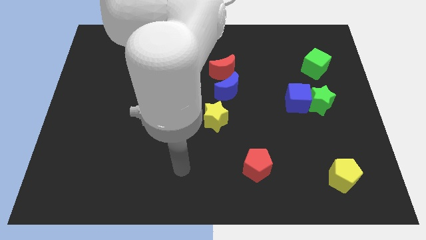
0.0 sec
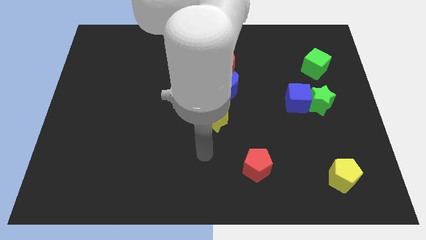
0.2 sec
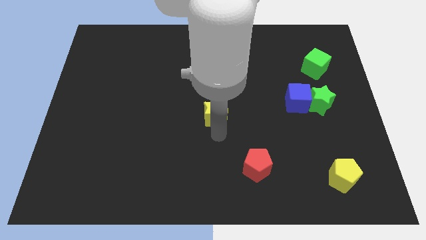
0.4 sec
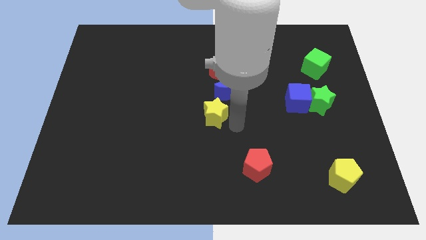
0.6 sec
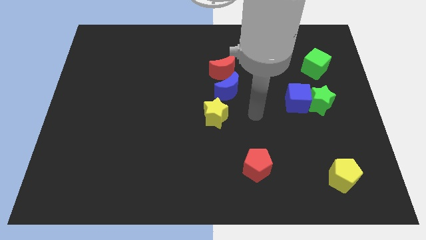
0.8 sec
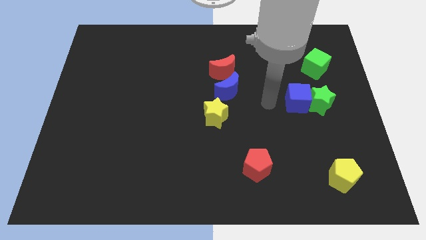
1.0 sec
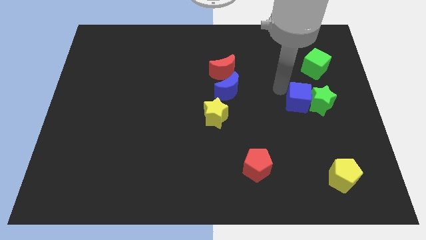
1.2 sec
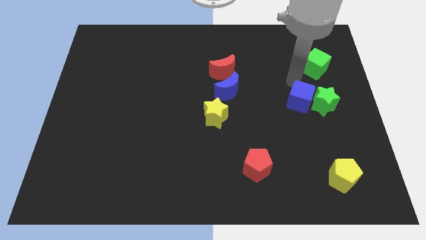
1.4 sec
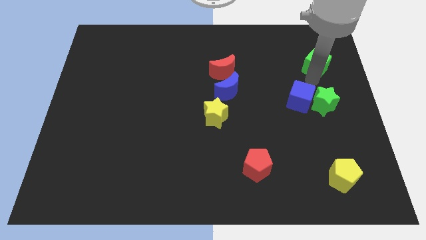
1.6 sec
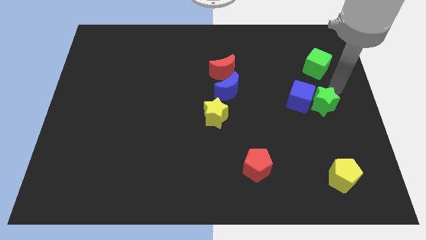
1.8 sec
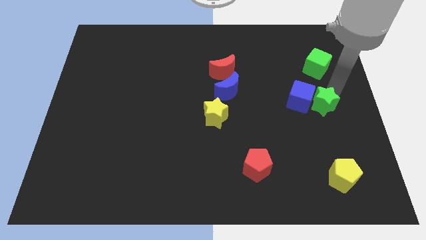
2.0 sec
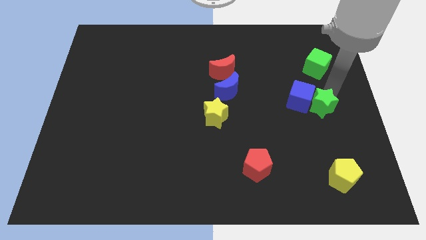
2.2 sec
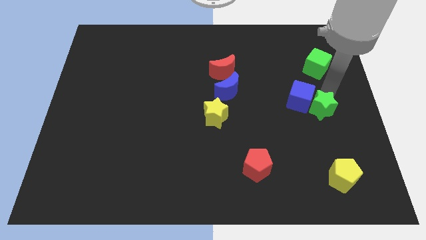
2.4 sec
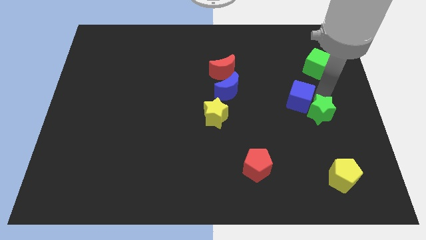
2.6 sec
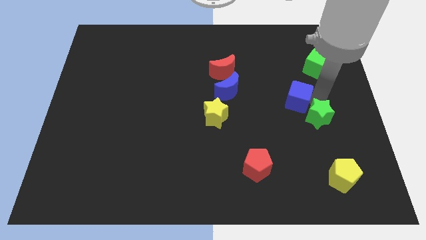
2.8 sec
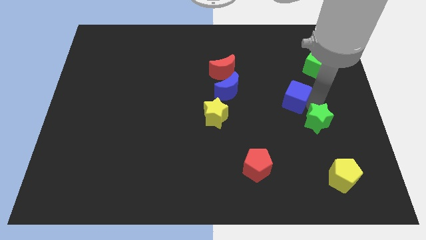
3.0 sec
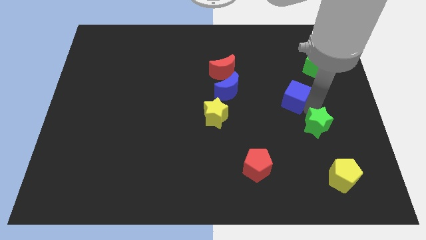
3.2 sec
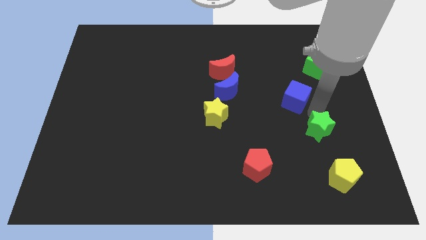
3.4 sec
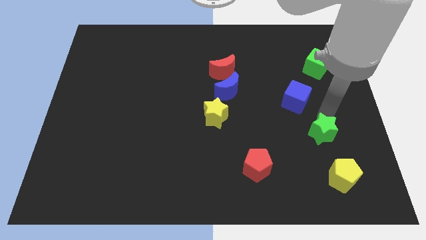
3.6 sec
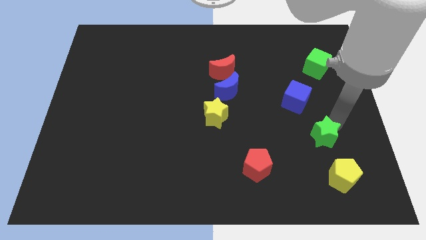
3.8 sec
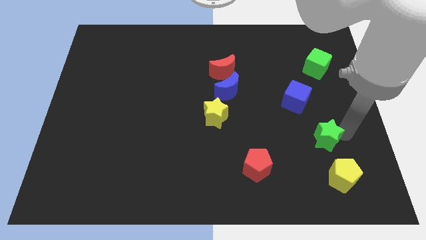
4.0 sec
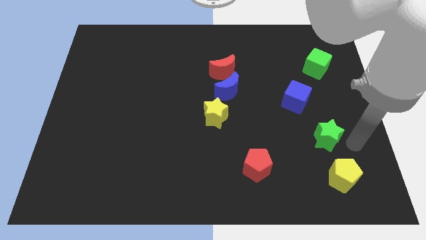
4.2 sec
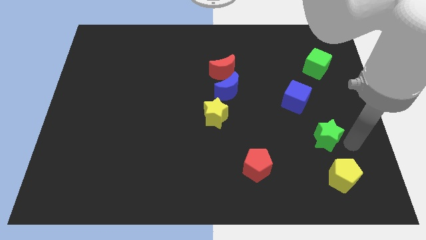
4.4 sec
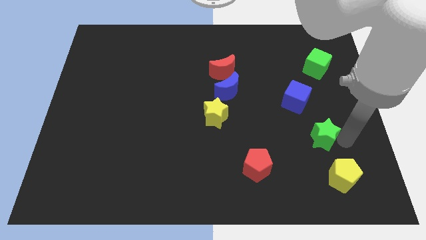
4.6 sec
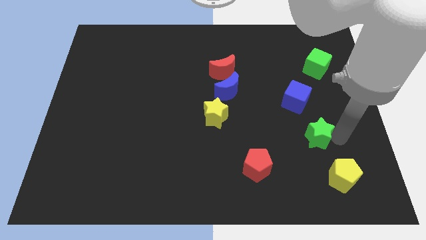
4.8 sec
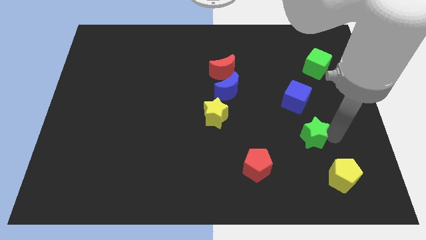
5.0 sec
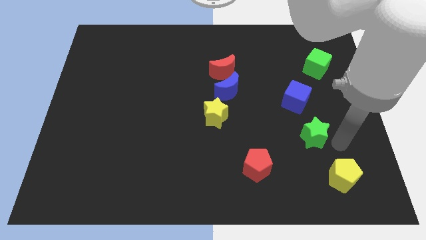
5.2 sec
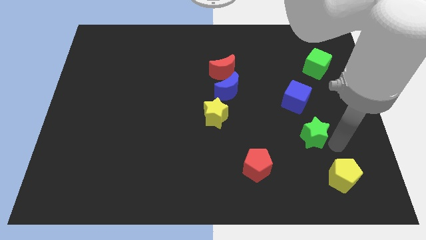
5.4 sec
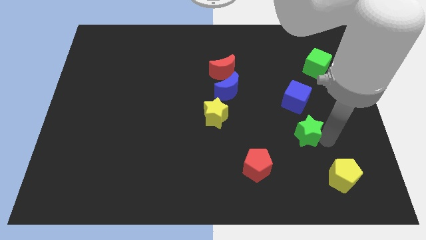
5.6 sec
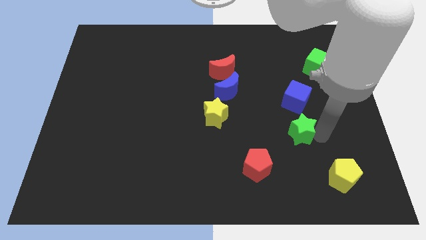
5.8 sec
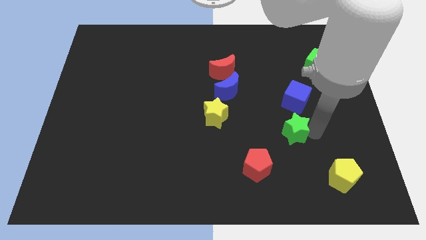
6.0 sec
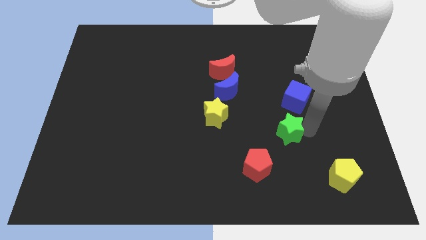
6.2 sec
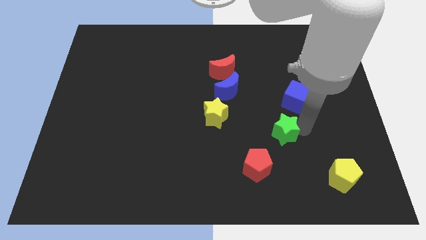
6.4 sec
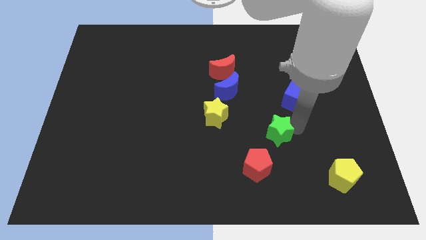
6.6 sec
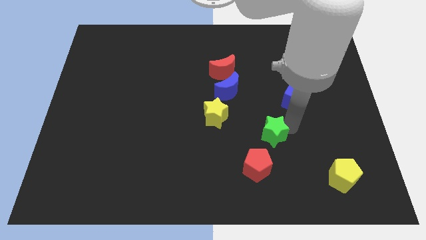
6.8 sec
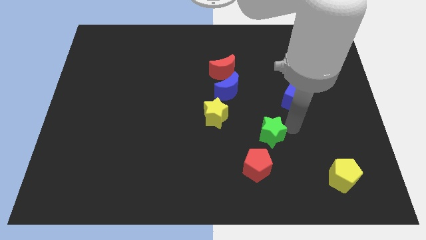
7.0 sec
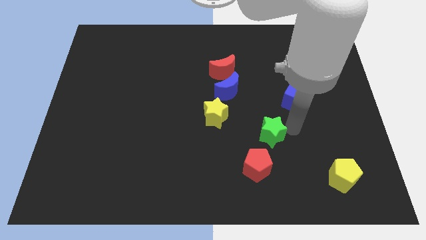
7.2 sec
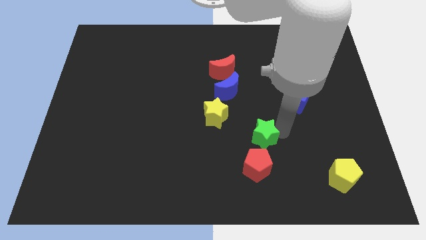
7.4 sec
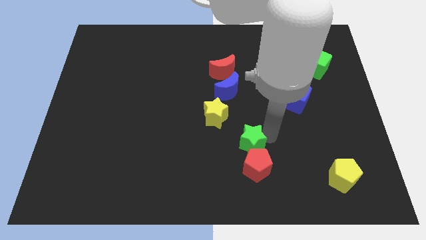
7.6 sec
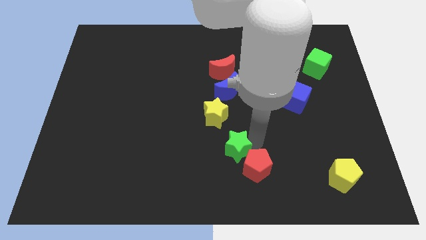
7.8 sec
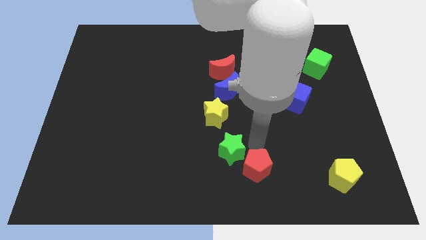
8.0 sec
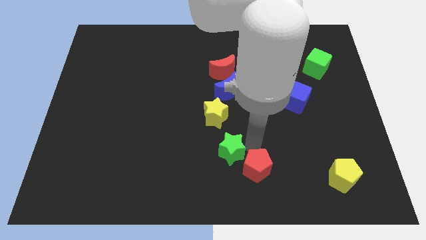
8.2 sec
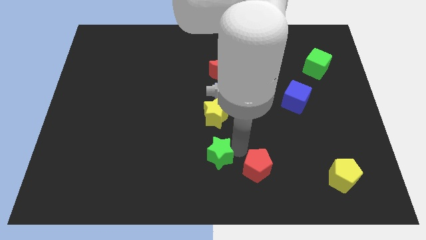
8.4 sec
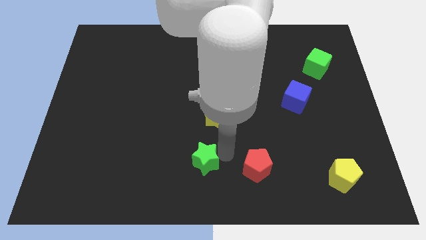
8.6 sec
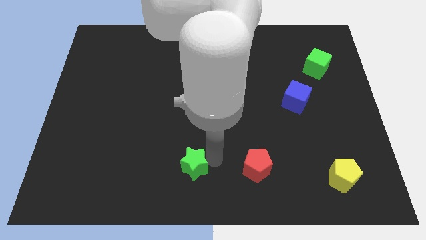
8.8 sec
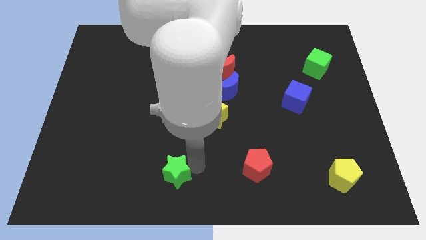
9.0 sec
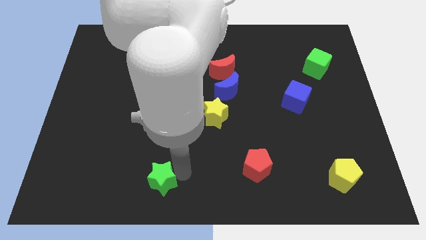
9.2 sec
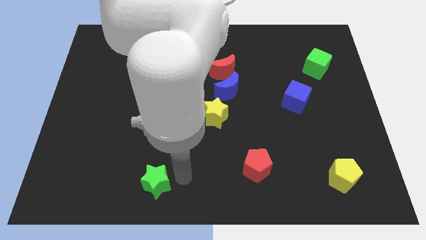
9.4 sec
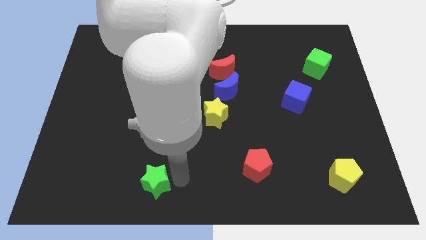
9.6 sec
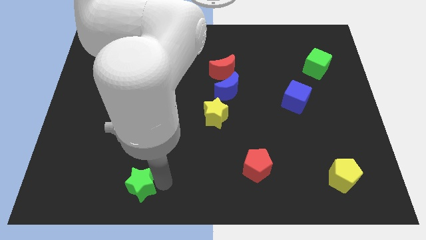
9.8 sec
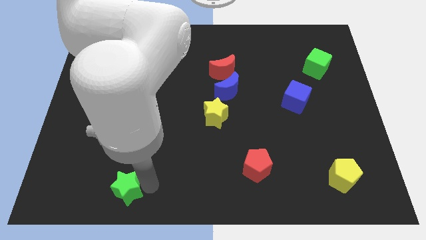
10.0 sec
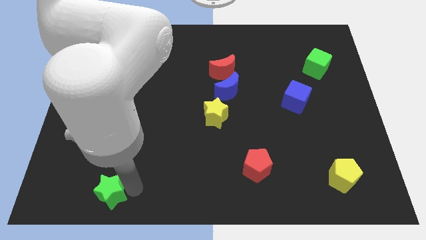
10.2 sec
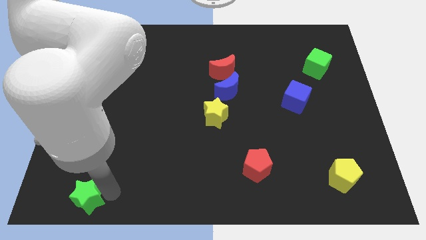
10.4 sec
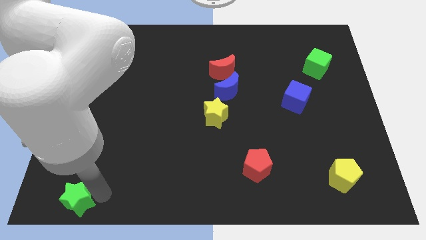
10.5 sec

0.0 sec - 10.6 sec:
slide the green star to the lower left corner

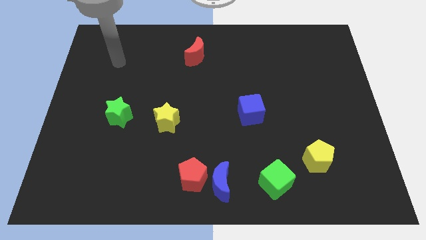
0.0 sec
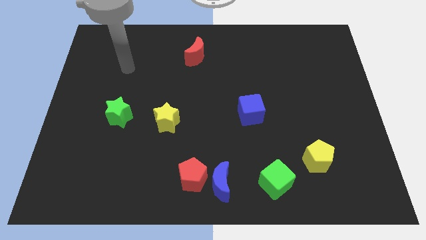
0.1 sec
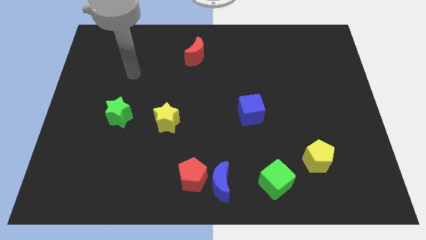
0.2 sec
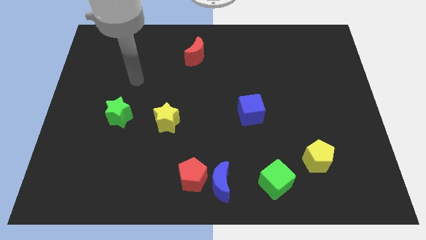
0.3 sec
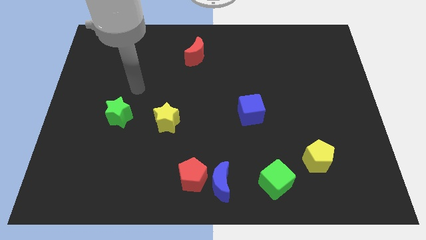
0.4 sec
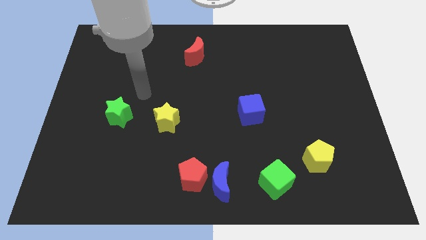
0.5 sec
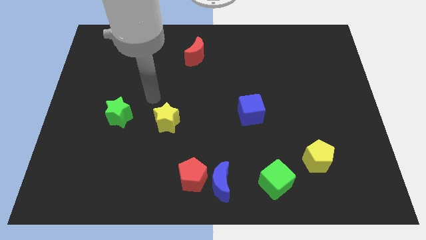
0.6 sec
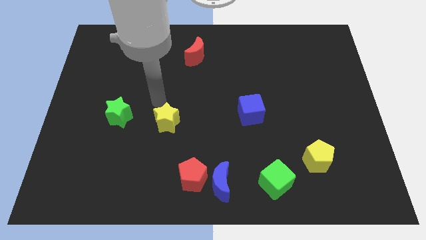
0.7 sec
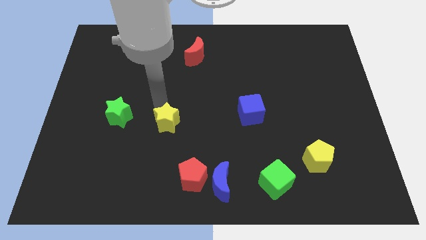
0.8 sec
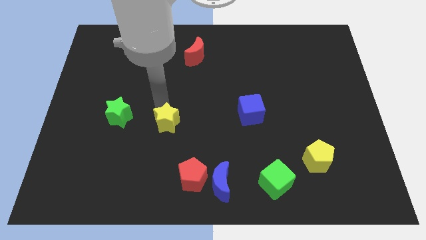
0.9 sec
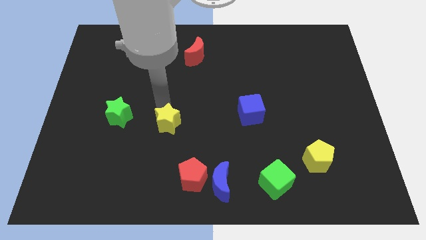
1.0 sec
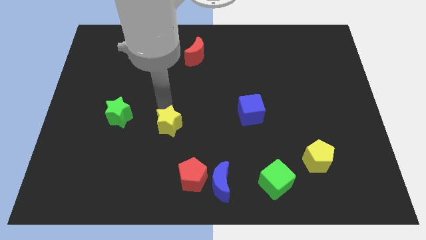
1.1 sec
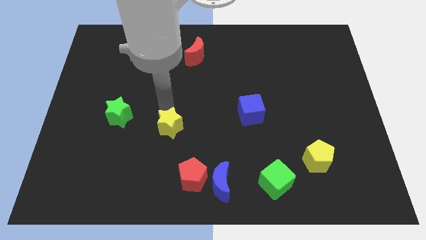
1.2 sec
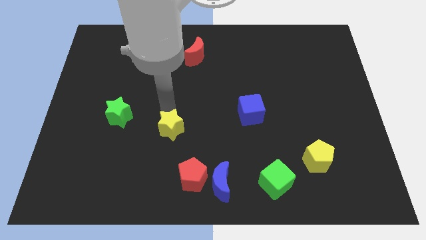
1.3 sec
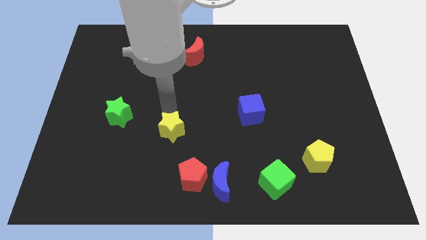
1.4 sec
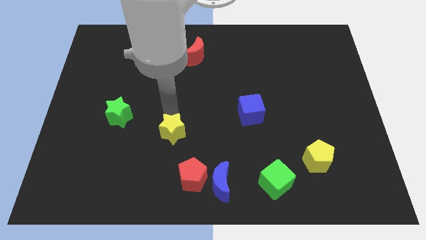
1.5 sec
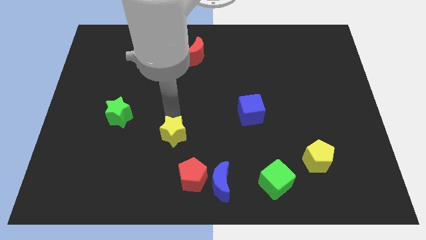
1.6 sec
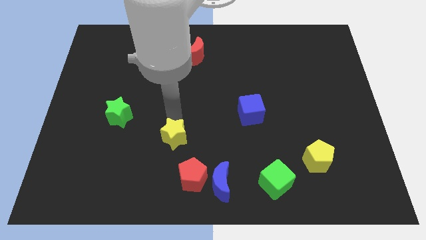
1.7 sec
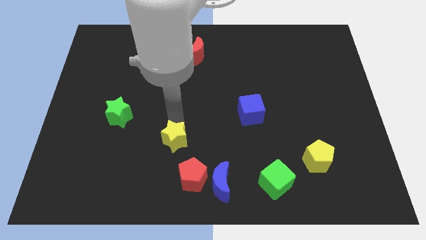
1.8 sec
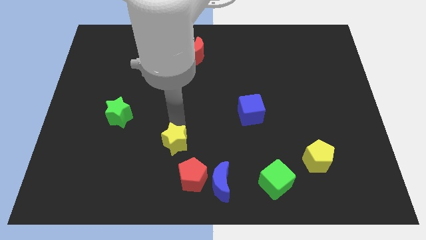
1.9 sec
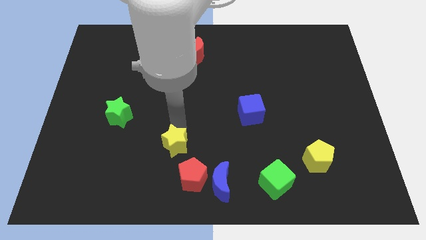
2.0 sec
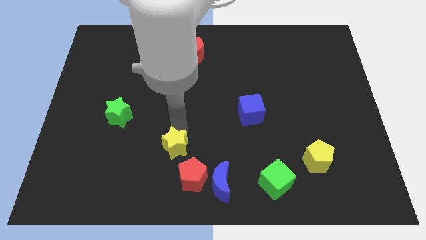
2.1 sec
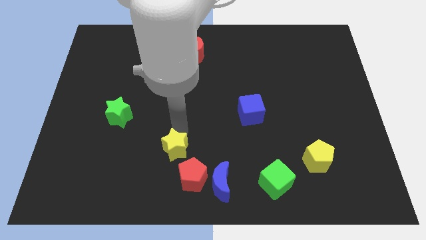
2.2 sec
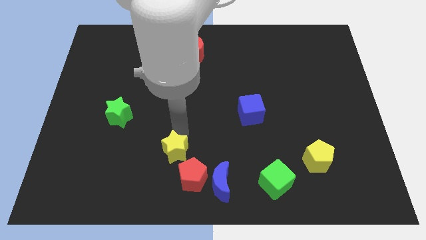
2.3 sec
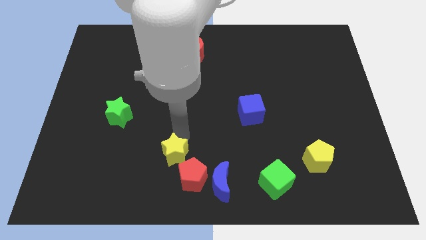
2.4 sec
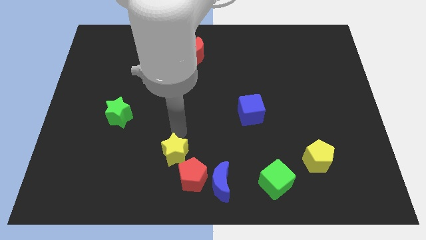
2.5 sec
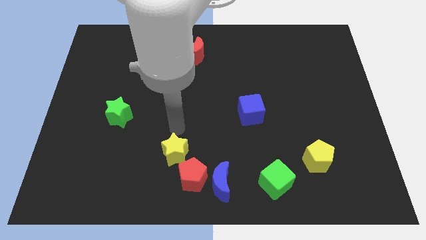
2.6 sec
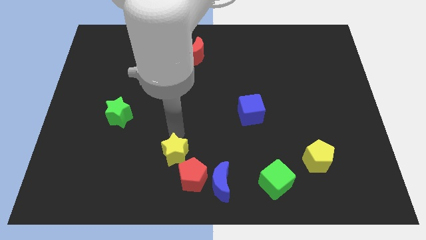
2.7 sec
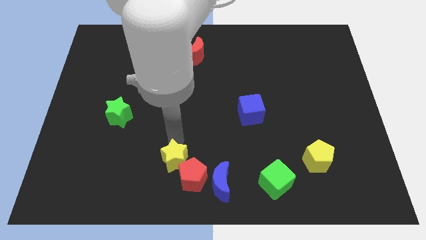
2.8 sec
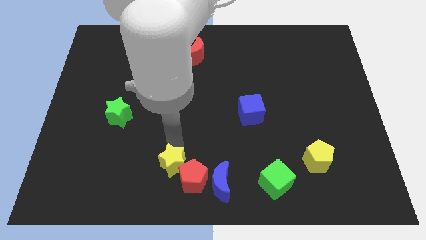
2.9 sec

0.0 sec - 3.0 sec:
put the yellow star to the bottom side
